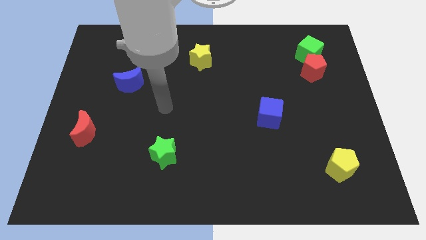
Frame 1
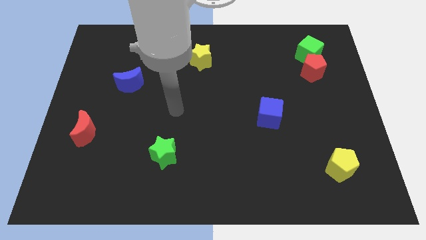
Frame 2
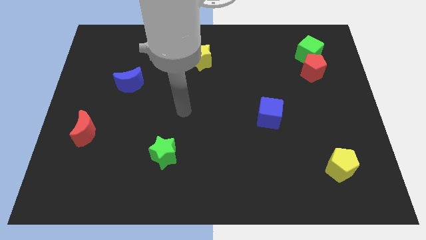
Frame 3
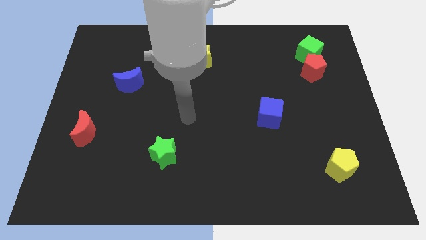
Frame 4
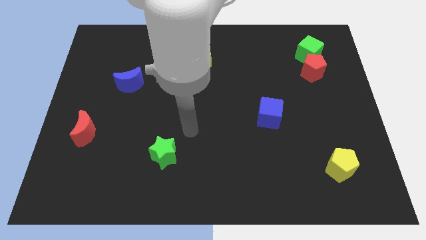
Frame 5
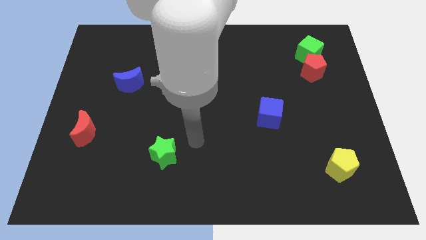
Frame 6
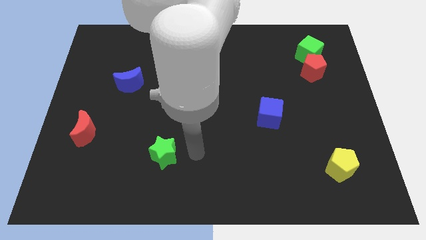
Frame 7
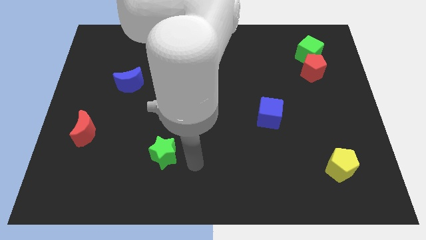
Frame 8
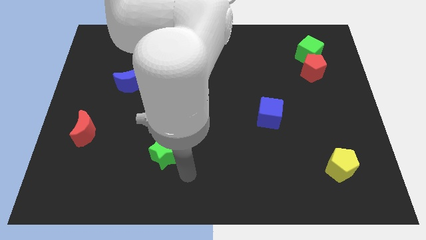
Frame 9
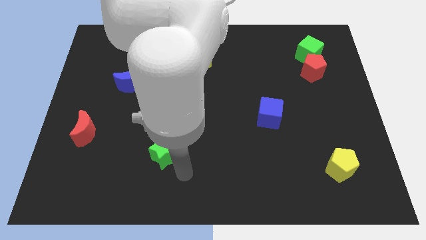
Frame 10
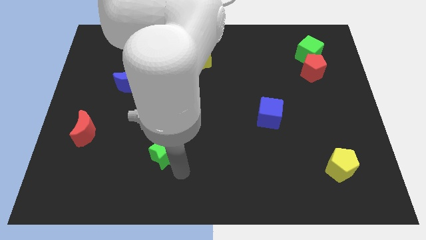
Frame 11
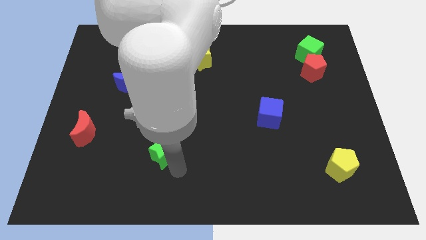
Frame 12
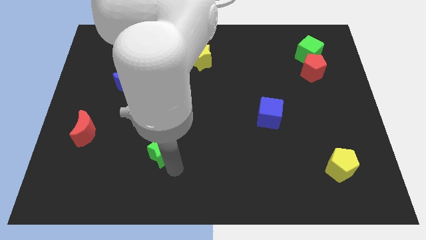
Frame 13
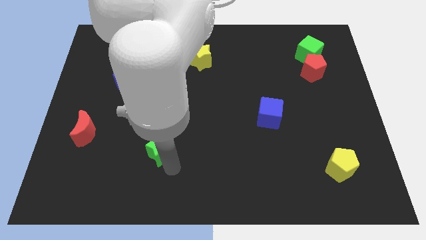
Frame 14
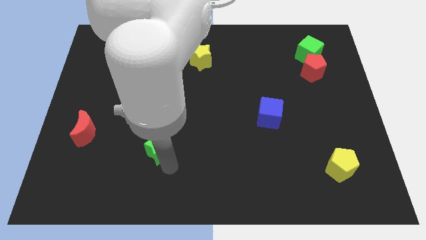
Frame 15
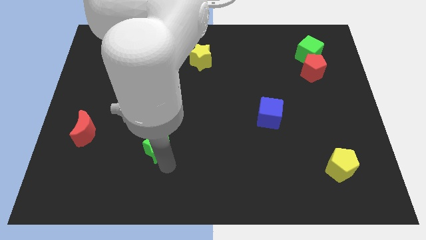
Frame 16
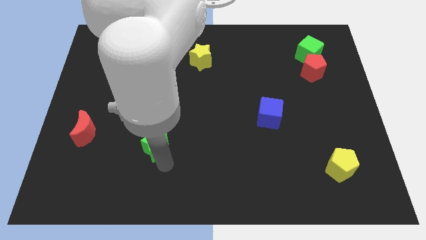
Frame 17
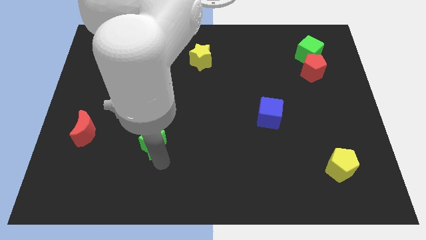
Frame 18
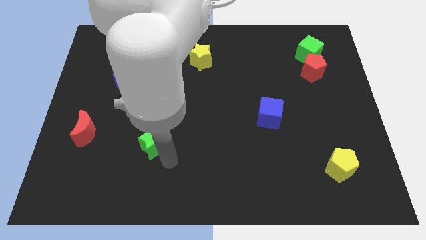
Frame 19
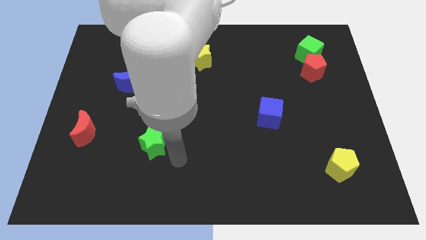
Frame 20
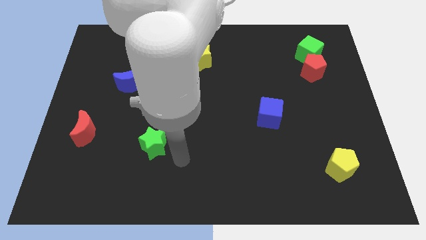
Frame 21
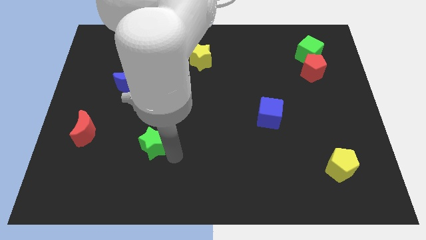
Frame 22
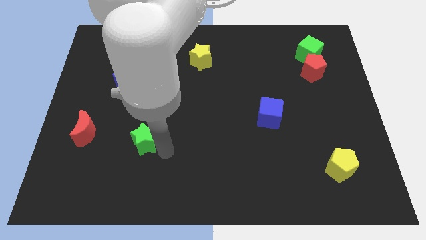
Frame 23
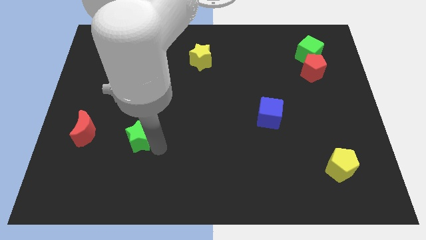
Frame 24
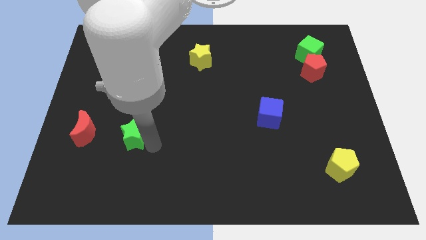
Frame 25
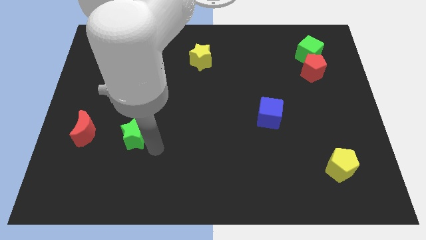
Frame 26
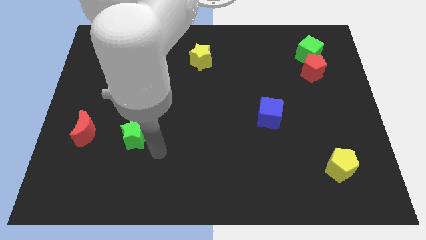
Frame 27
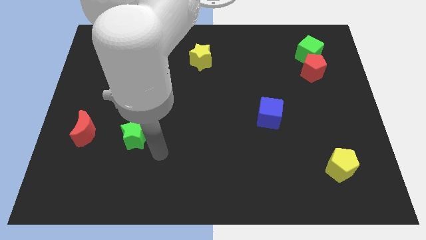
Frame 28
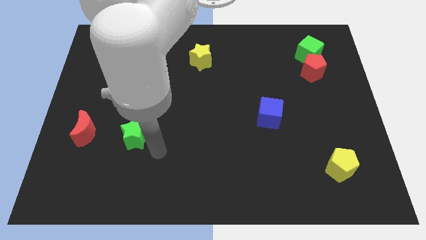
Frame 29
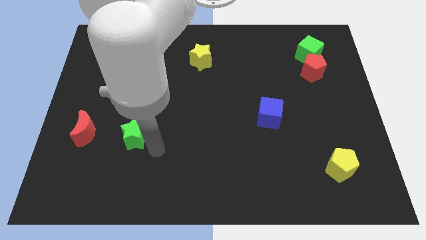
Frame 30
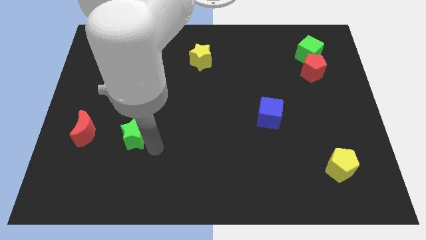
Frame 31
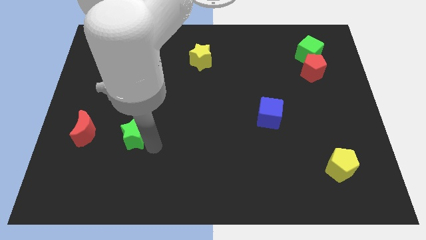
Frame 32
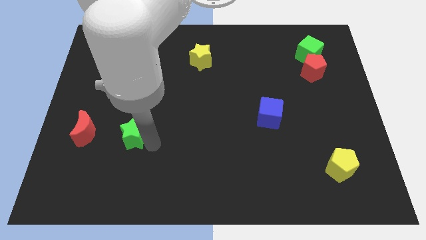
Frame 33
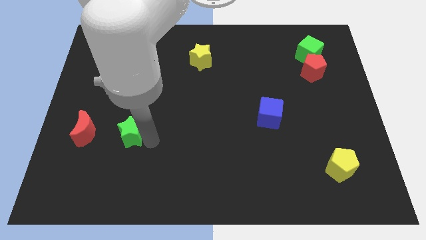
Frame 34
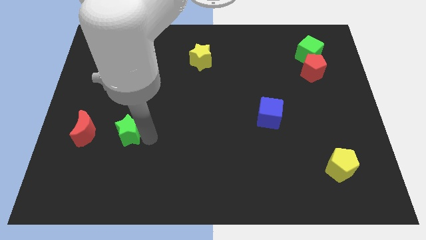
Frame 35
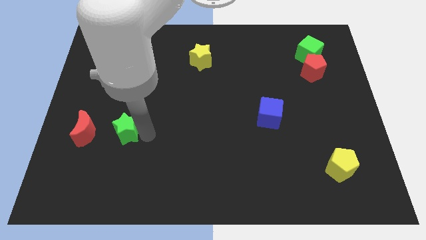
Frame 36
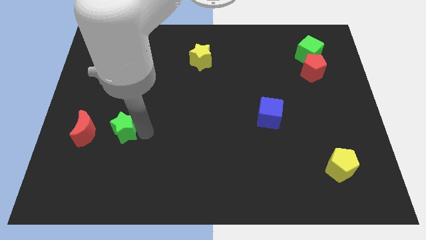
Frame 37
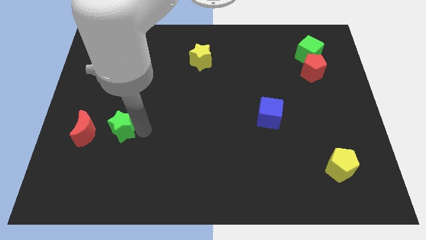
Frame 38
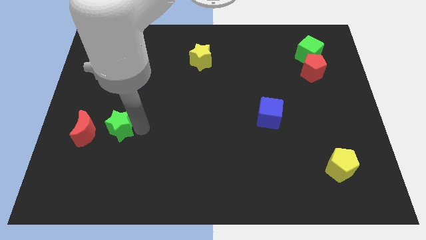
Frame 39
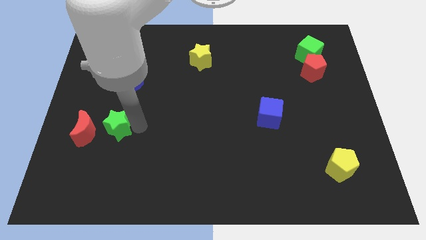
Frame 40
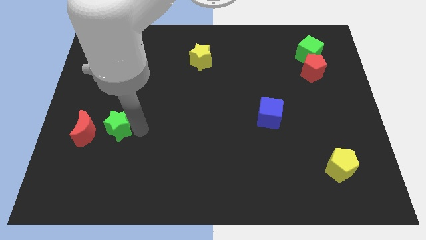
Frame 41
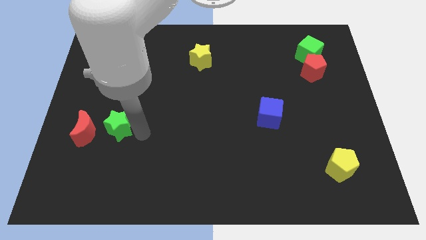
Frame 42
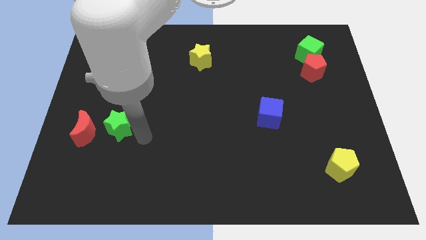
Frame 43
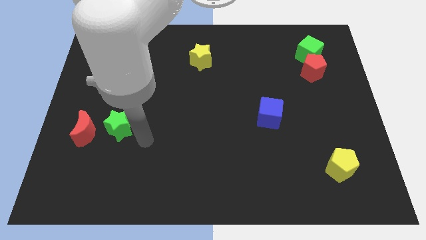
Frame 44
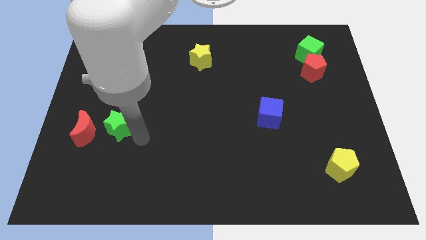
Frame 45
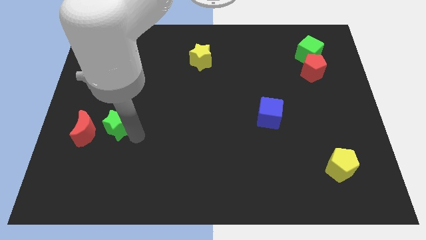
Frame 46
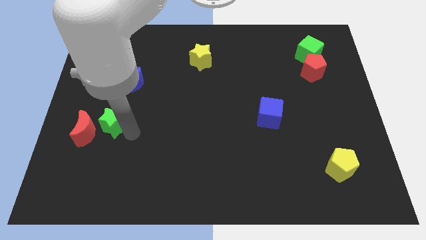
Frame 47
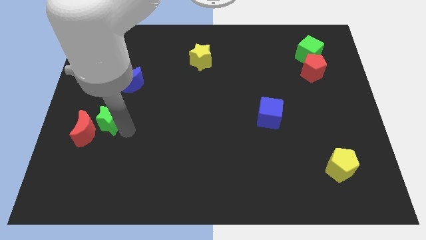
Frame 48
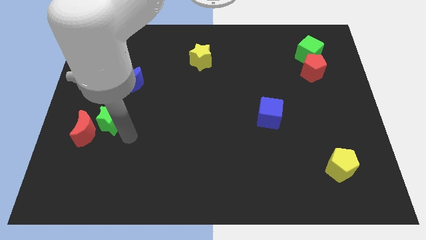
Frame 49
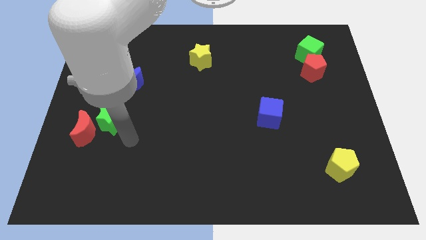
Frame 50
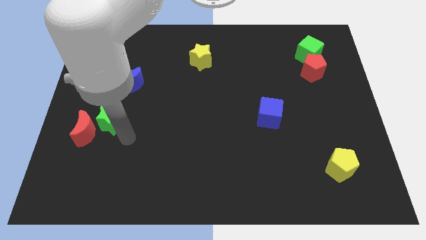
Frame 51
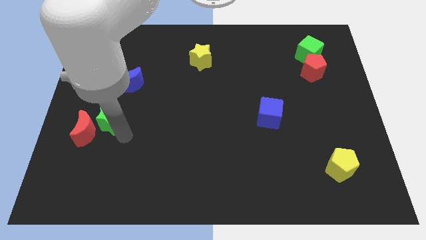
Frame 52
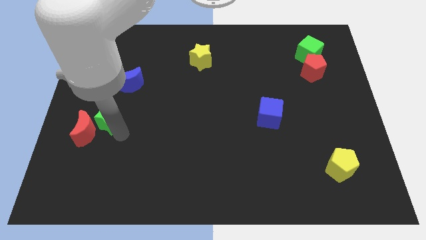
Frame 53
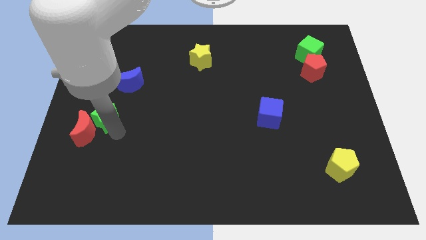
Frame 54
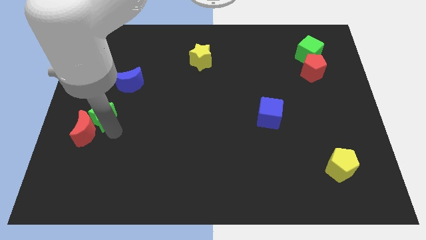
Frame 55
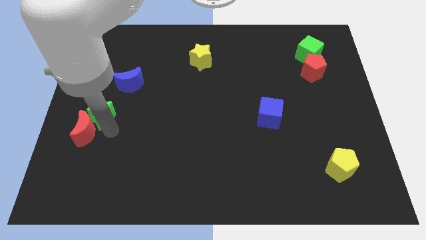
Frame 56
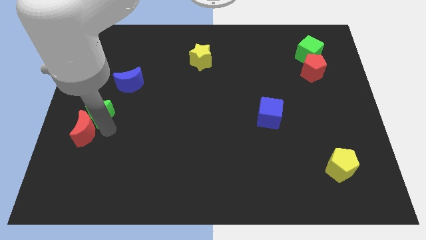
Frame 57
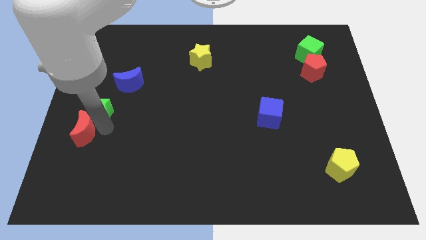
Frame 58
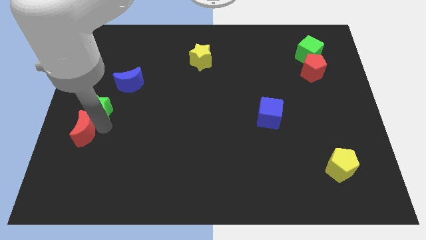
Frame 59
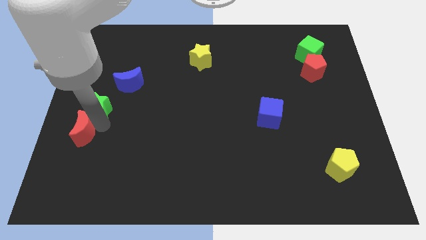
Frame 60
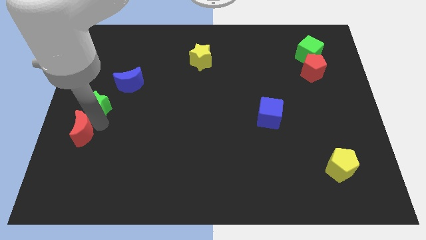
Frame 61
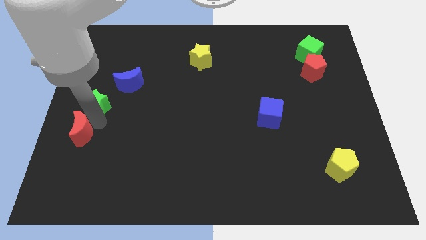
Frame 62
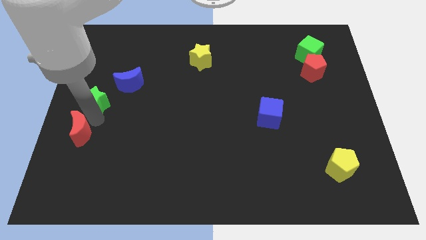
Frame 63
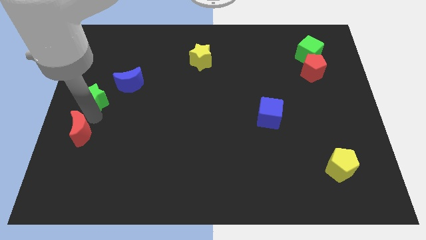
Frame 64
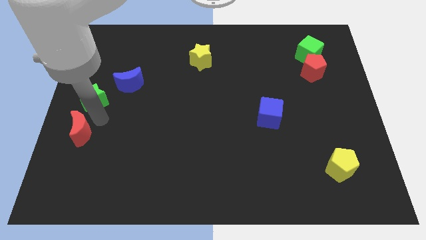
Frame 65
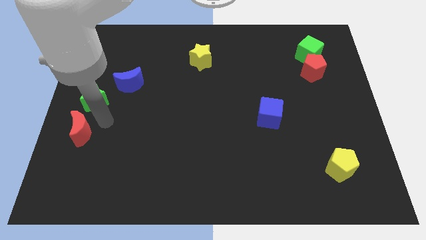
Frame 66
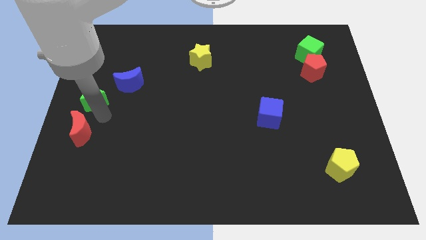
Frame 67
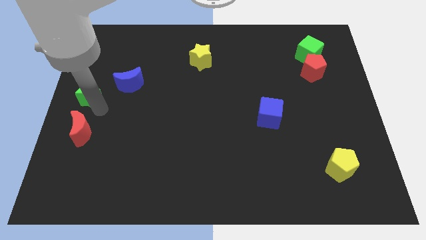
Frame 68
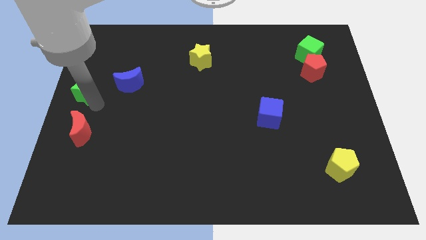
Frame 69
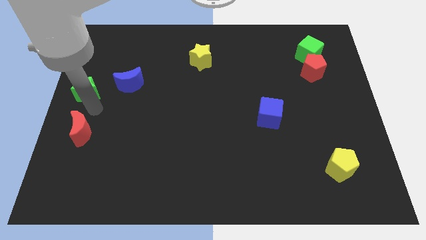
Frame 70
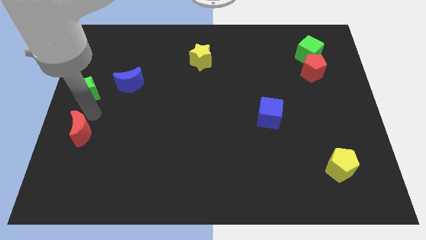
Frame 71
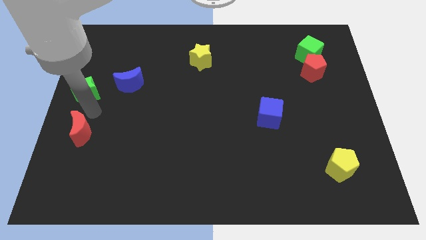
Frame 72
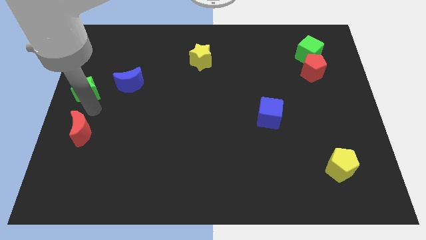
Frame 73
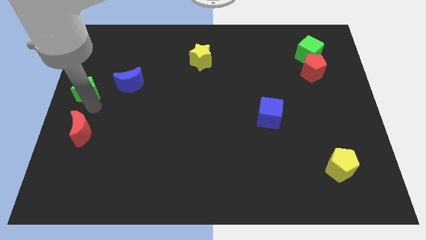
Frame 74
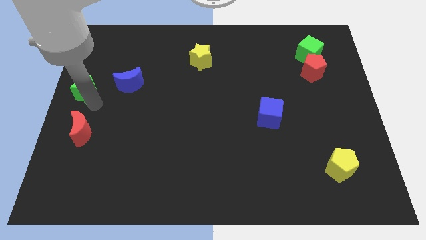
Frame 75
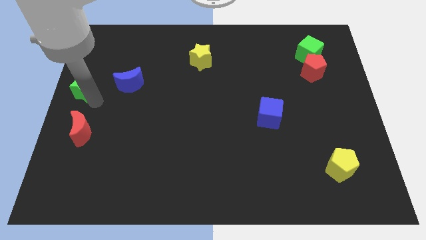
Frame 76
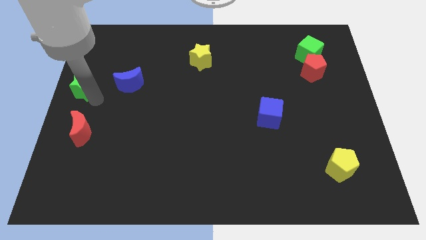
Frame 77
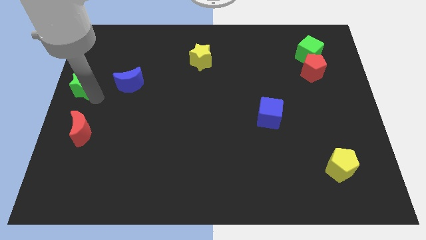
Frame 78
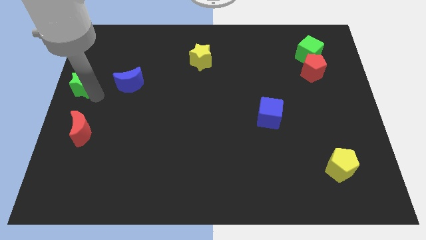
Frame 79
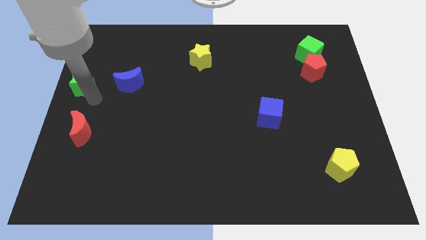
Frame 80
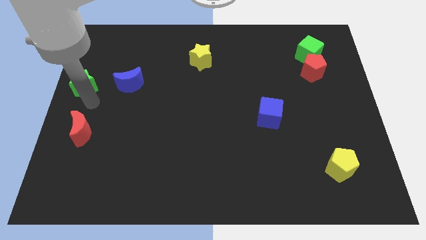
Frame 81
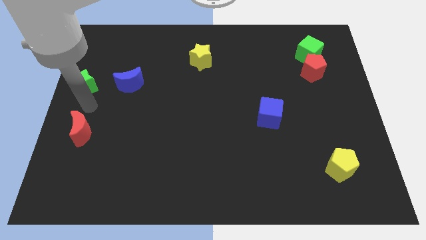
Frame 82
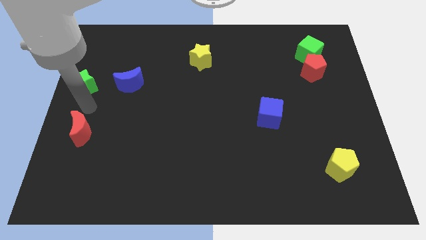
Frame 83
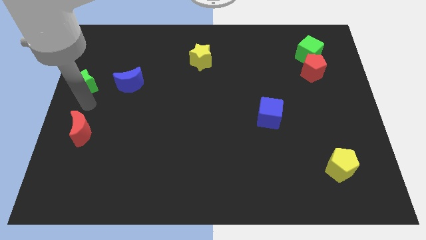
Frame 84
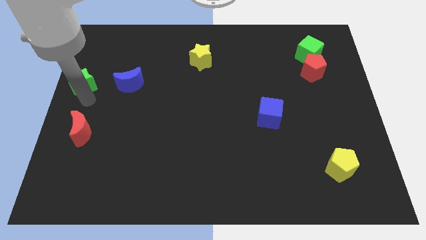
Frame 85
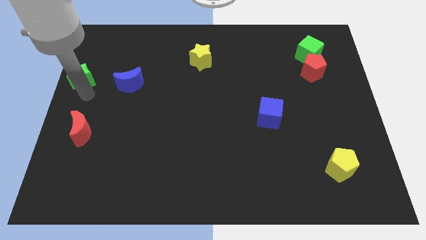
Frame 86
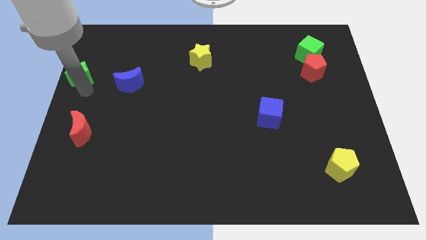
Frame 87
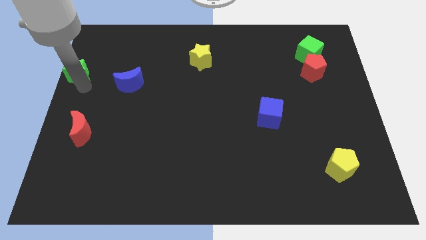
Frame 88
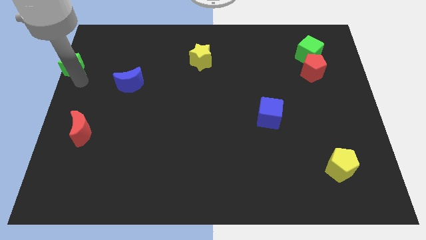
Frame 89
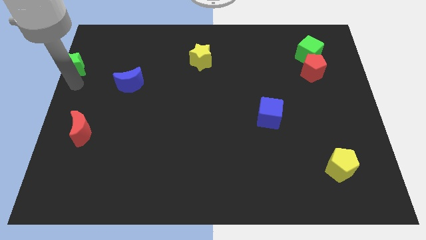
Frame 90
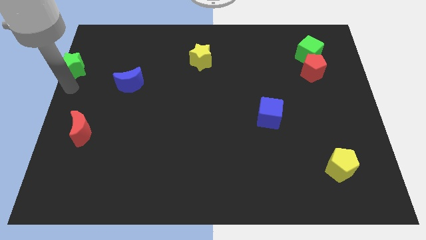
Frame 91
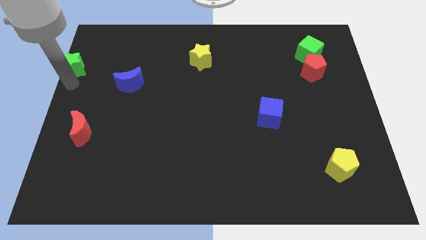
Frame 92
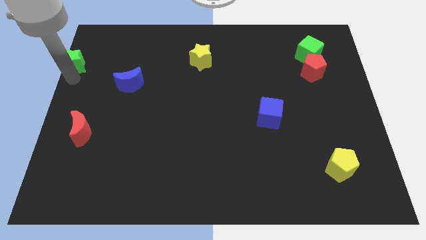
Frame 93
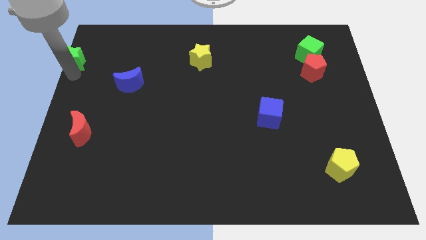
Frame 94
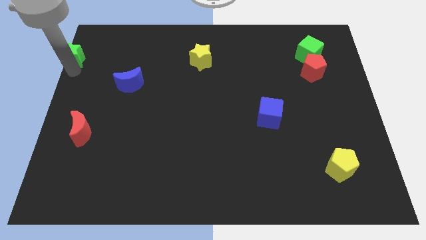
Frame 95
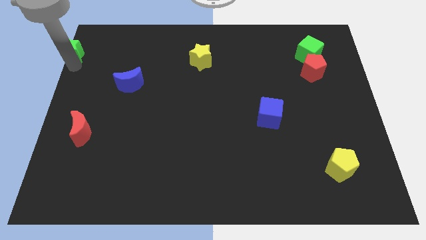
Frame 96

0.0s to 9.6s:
move the green star to the top left
